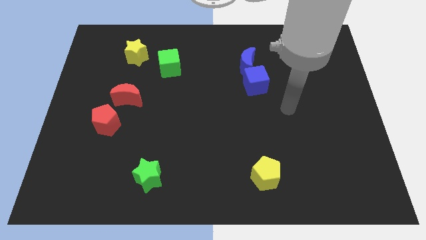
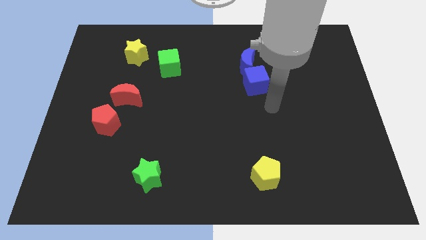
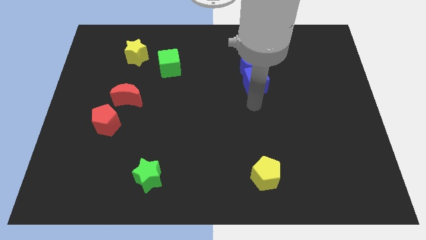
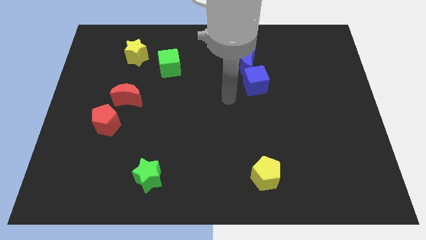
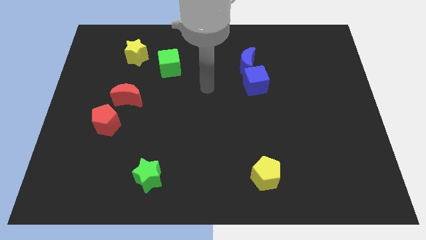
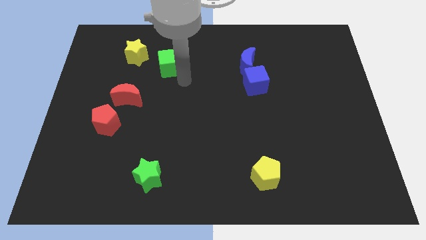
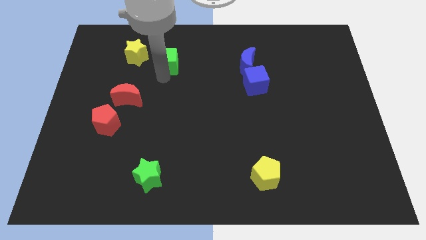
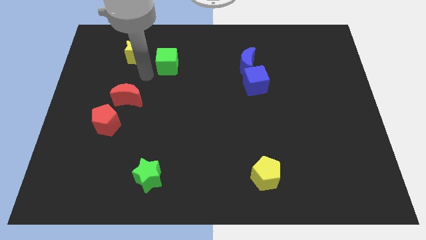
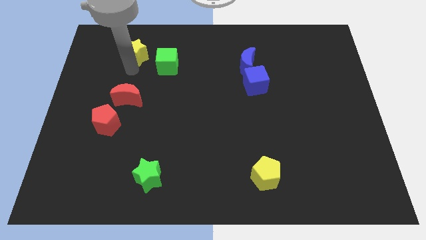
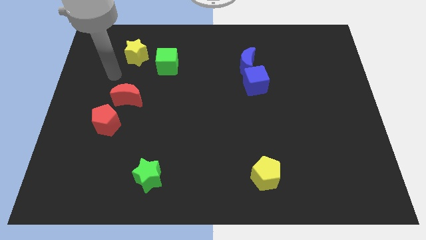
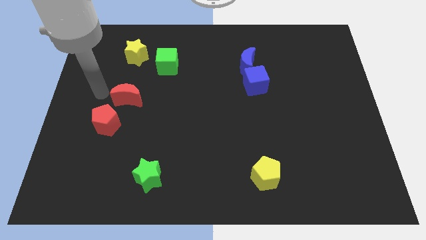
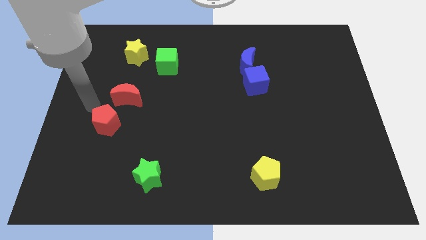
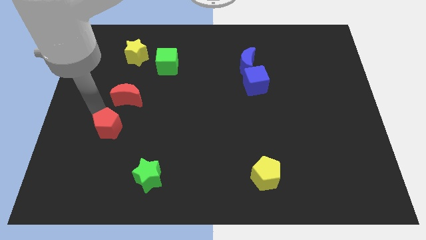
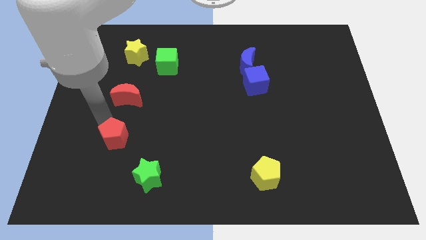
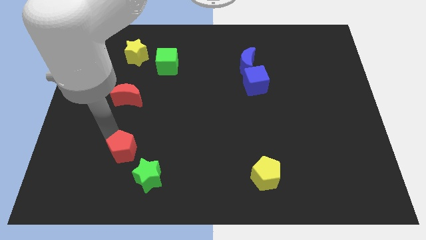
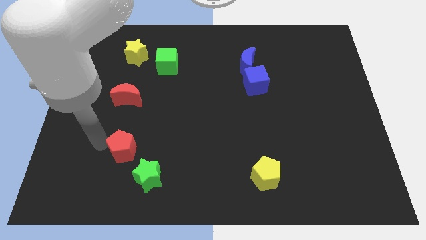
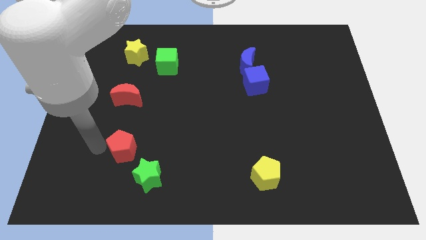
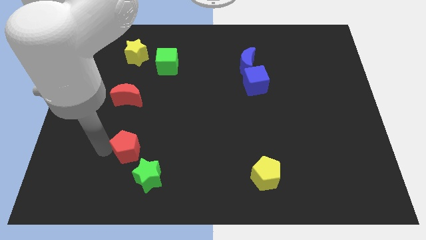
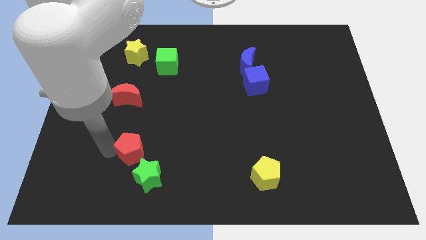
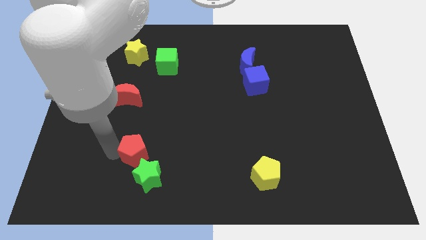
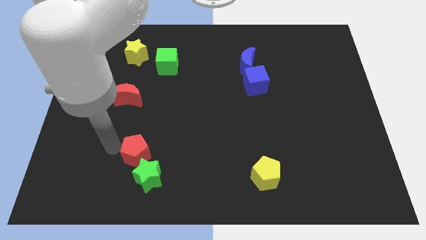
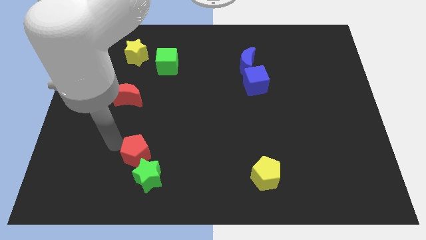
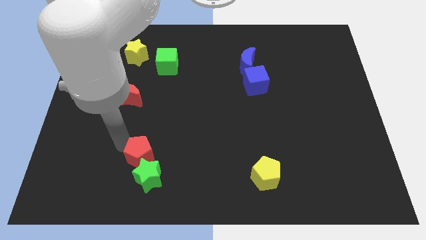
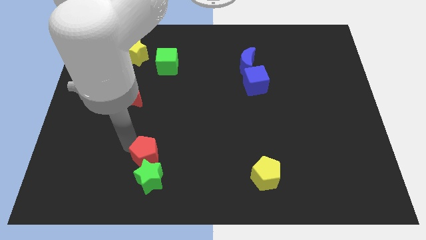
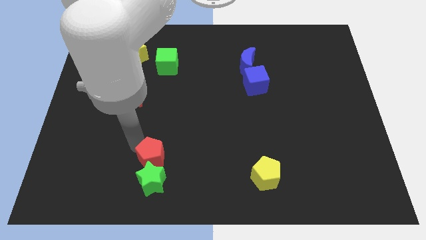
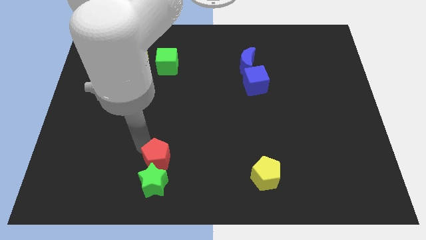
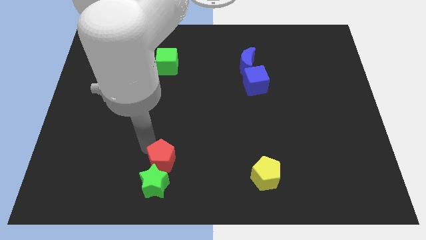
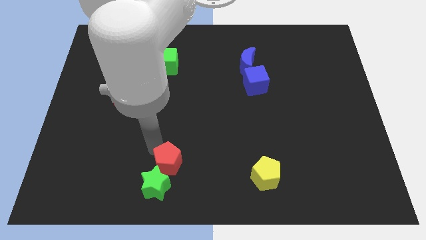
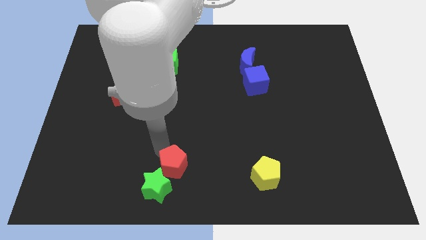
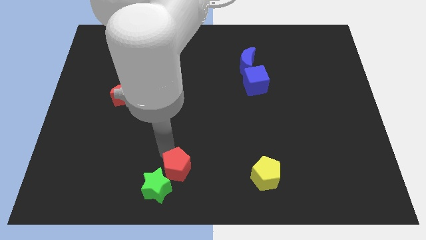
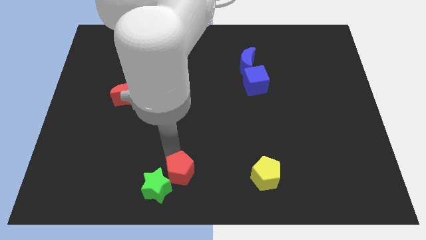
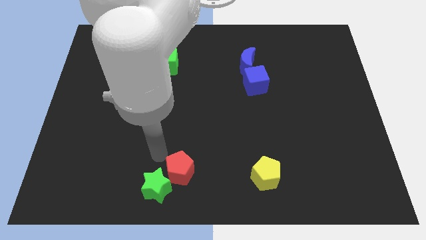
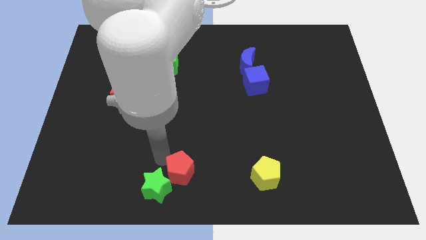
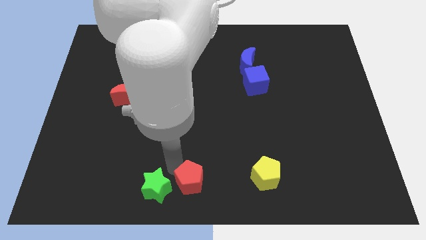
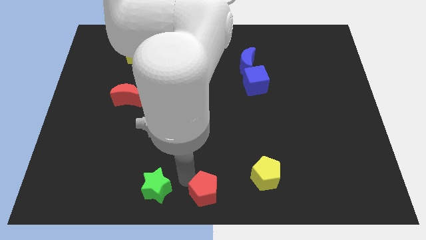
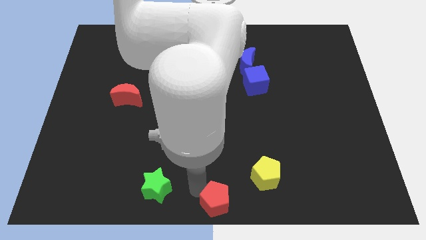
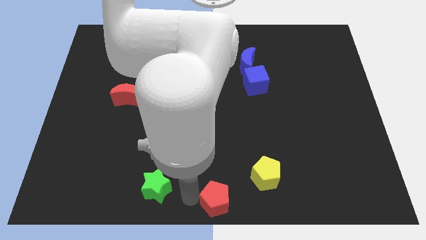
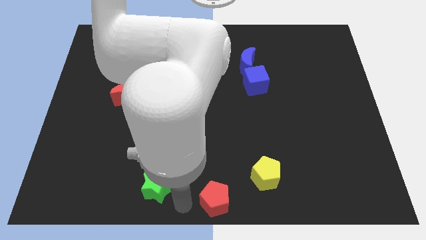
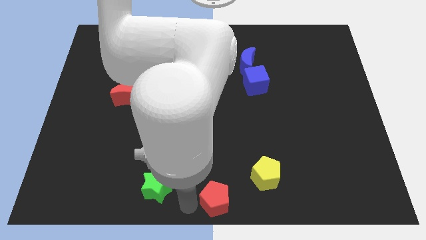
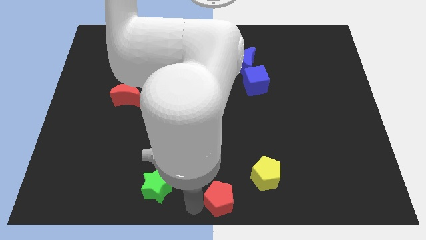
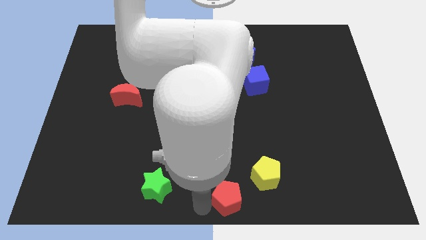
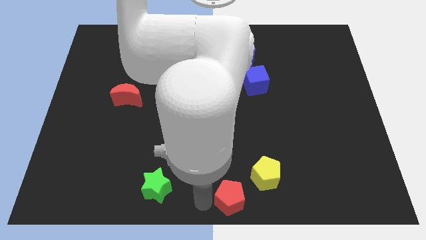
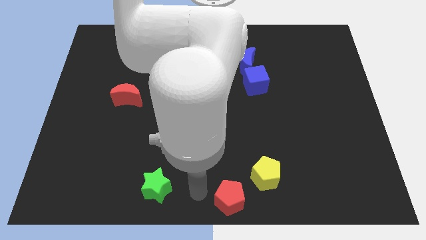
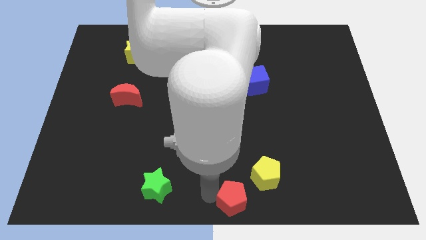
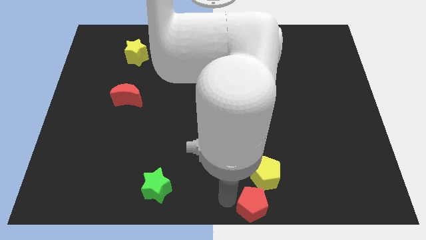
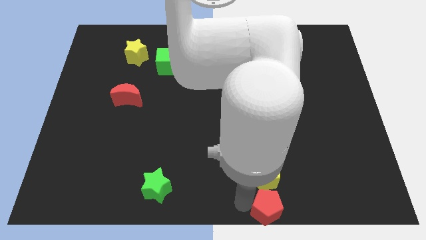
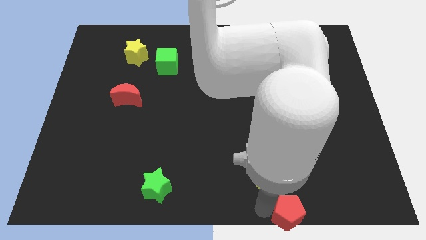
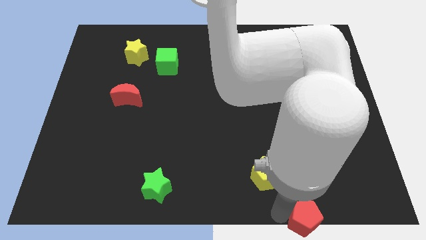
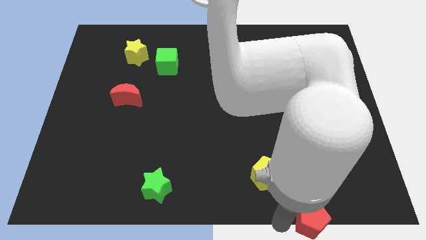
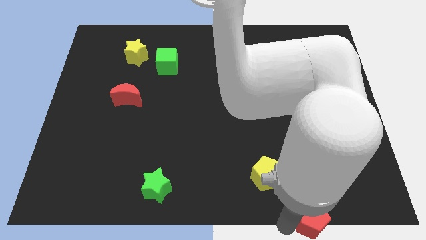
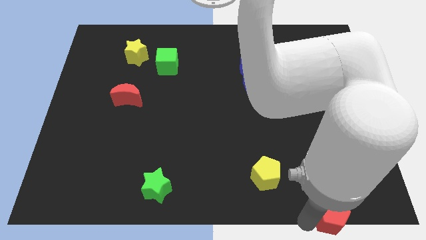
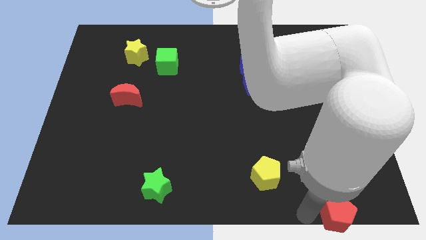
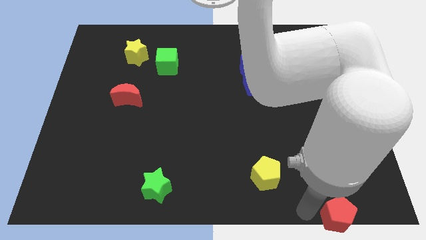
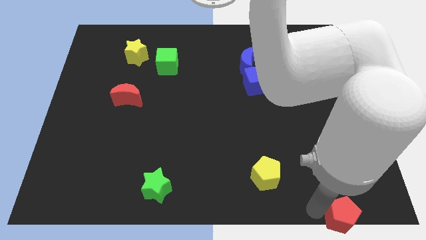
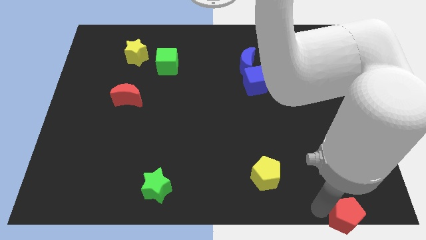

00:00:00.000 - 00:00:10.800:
move the red pentagon to the bottom right corner

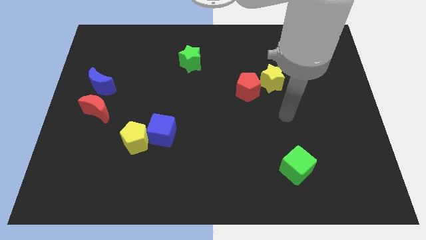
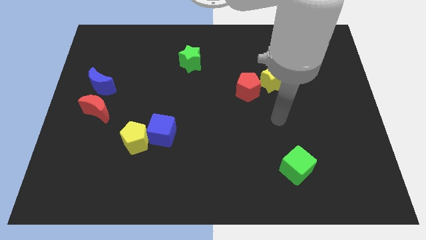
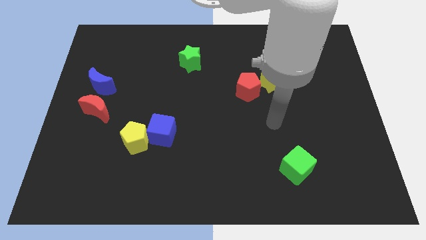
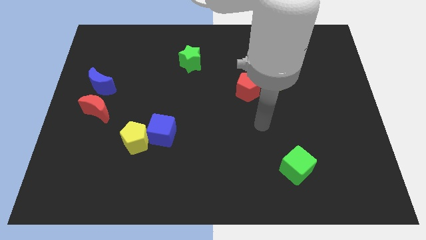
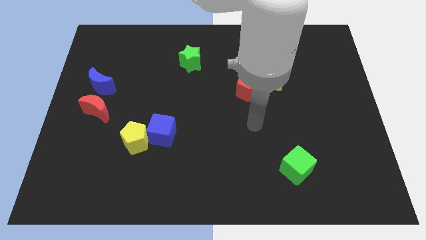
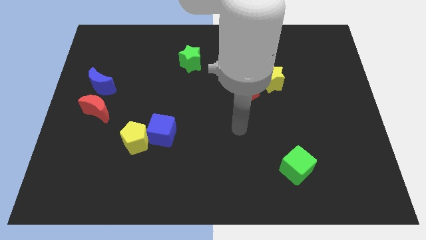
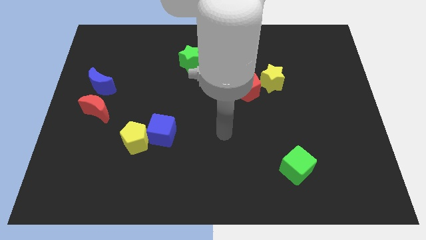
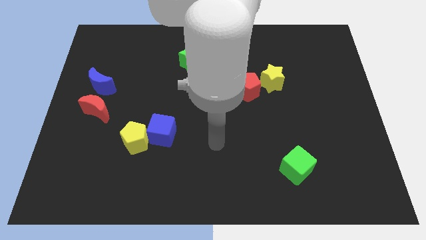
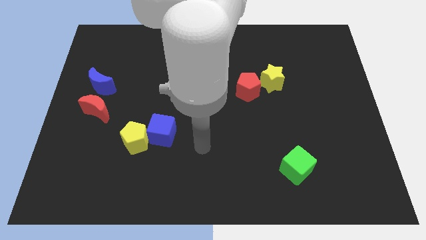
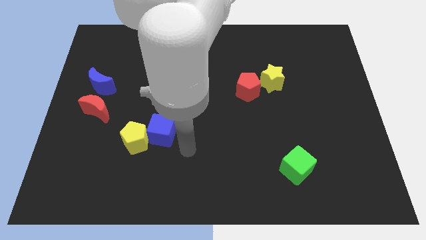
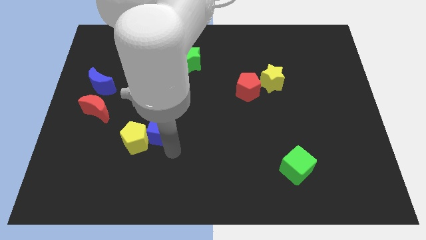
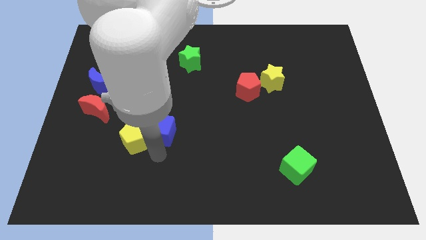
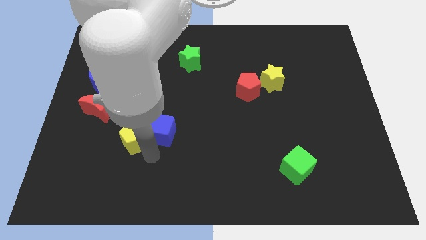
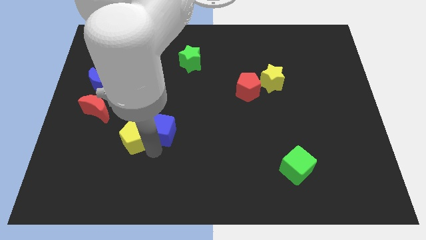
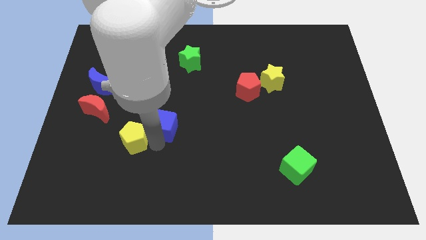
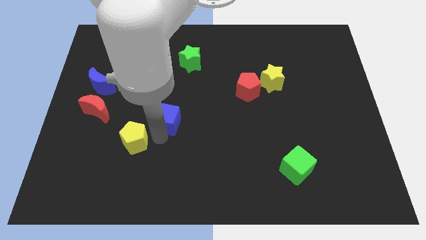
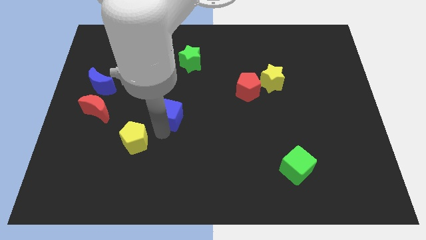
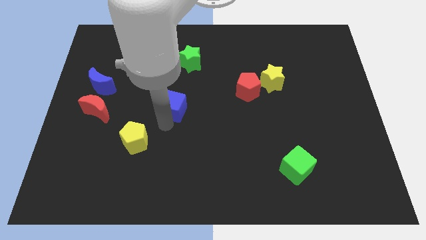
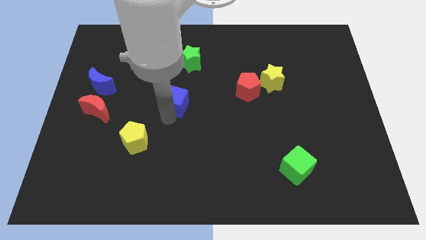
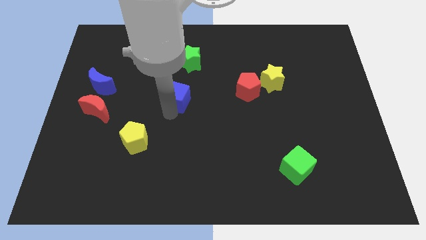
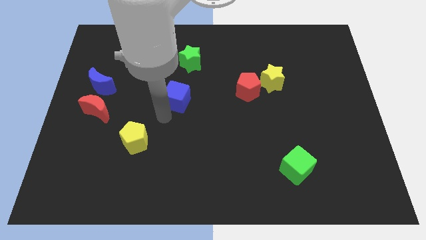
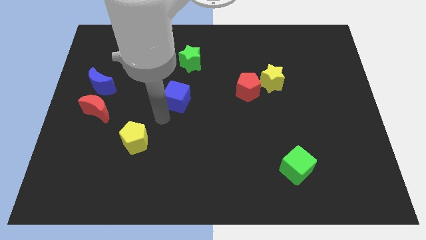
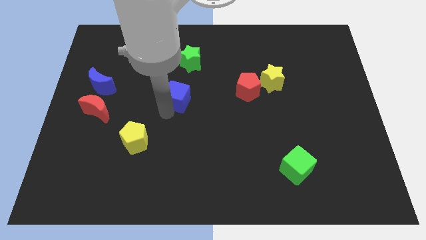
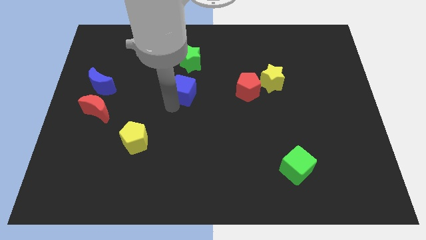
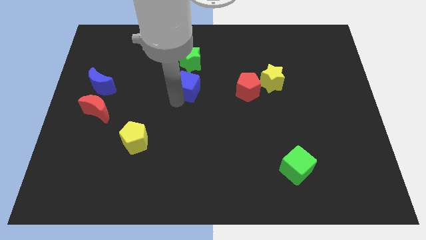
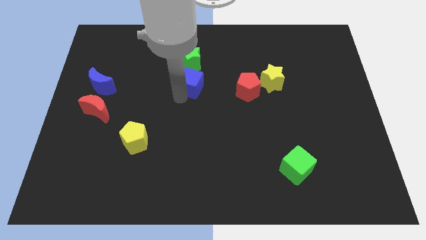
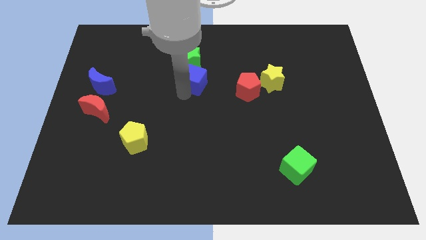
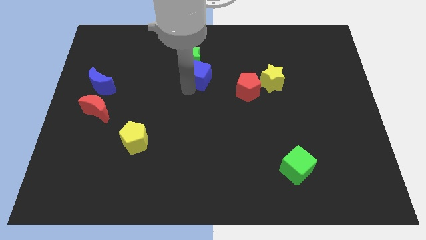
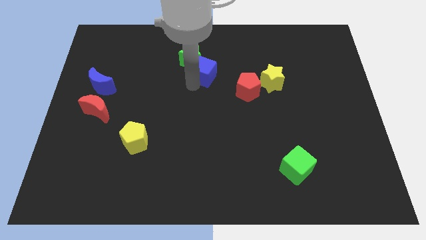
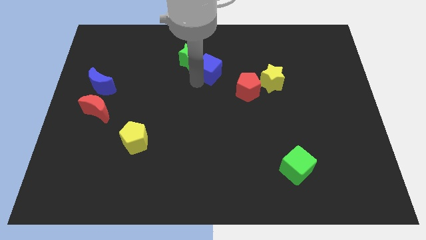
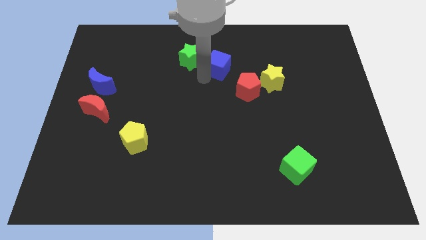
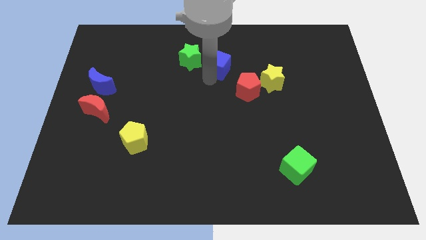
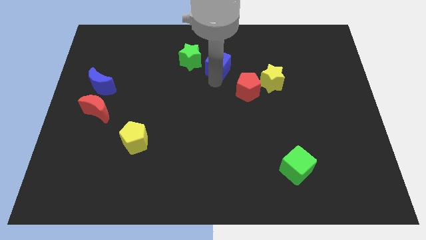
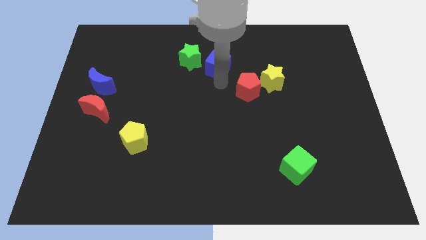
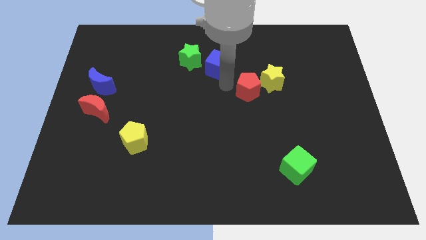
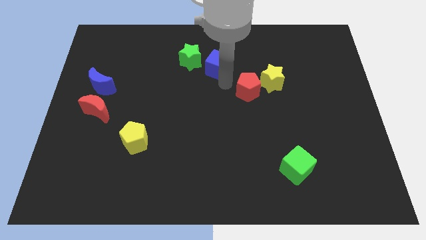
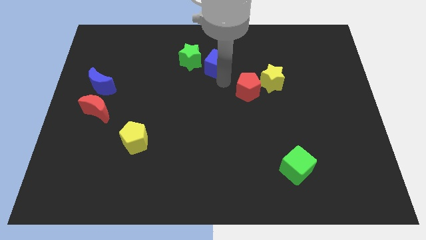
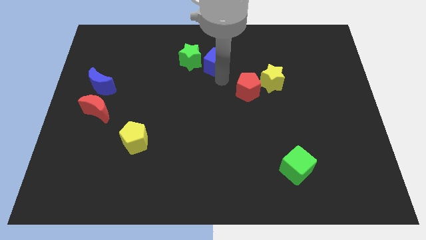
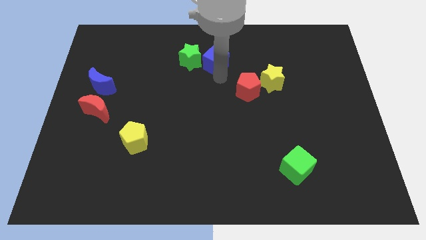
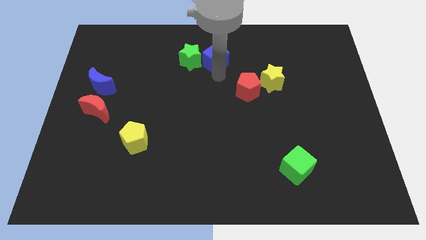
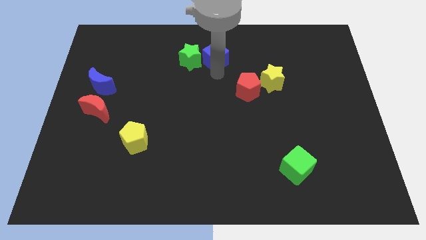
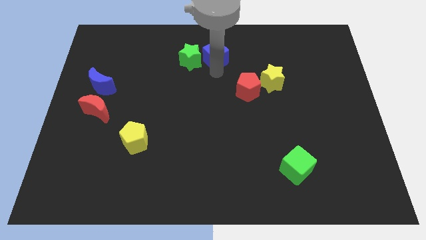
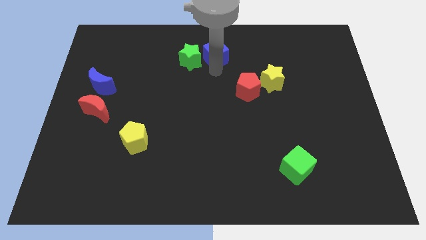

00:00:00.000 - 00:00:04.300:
push the blue cube to the towards your base
